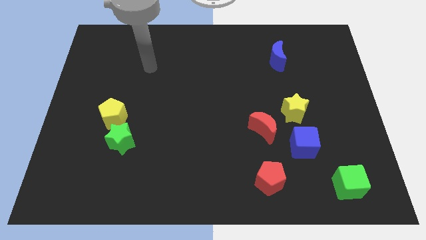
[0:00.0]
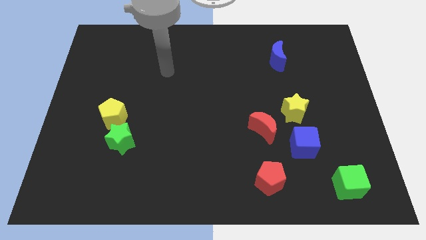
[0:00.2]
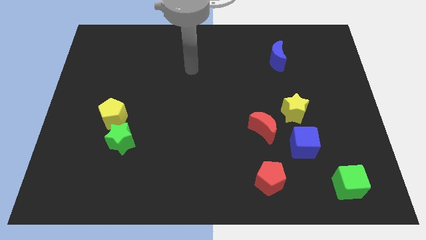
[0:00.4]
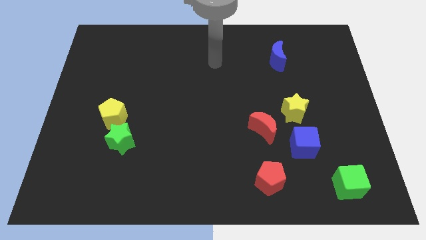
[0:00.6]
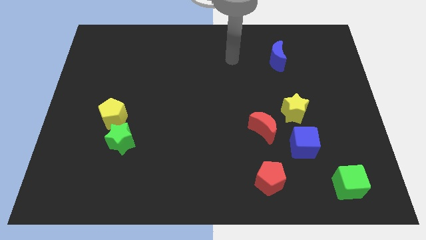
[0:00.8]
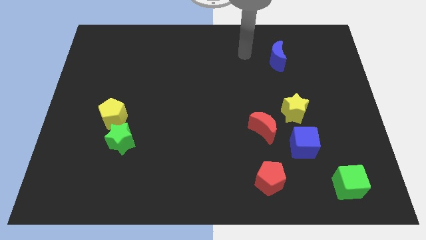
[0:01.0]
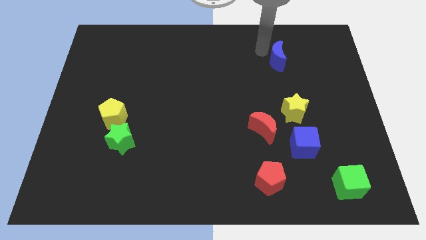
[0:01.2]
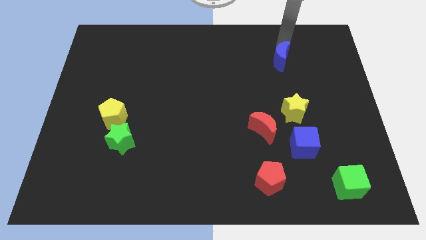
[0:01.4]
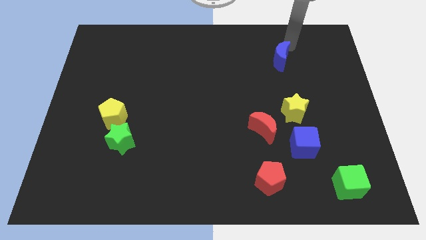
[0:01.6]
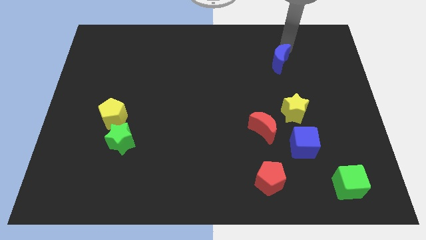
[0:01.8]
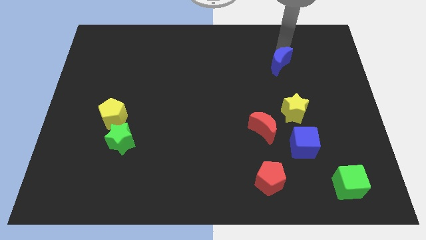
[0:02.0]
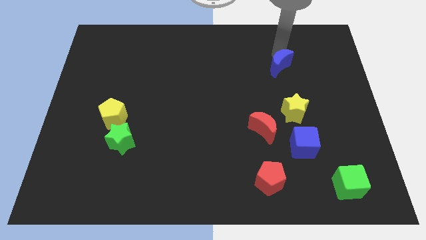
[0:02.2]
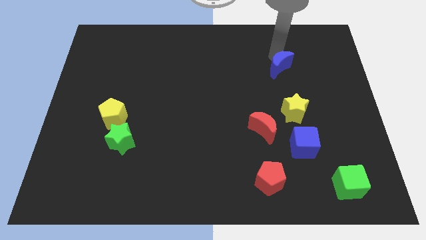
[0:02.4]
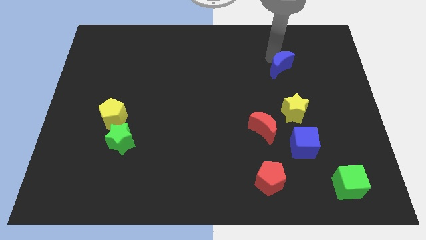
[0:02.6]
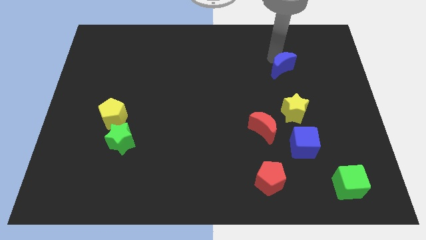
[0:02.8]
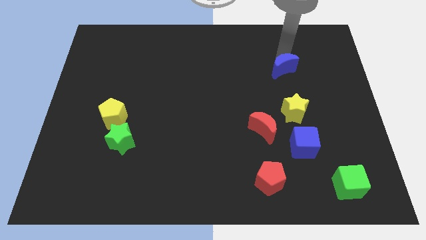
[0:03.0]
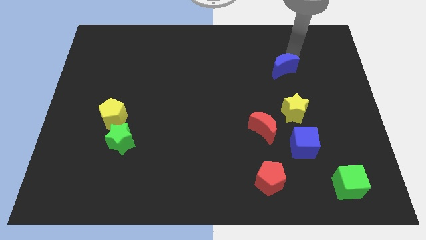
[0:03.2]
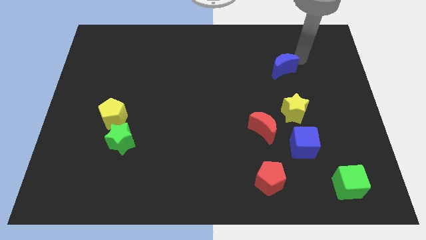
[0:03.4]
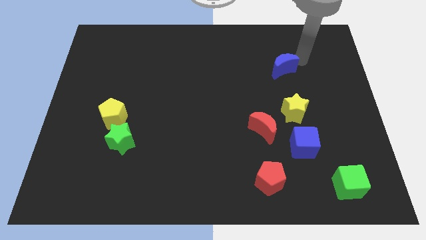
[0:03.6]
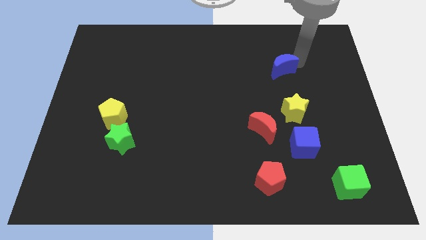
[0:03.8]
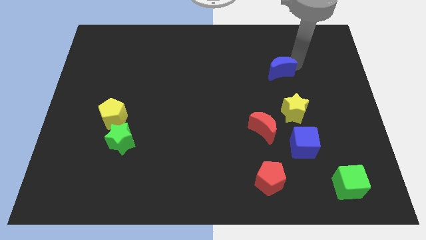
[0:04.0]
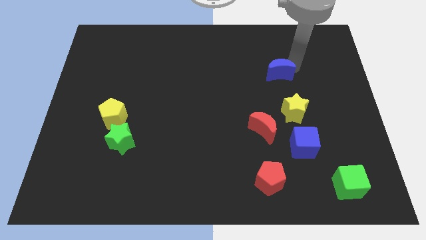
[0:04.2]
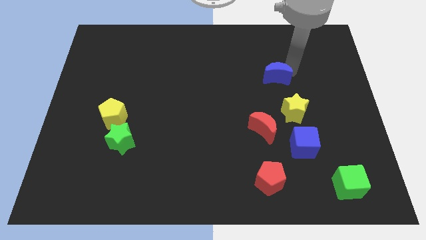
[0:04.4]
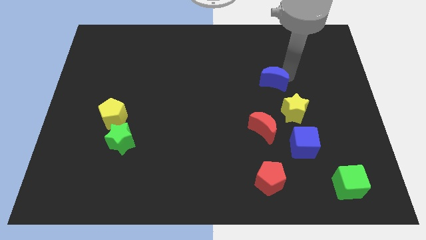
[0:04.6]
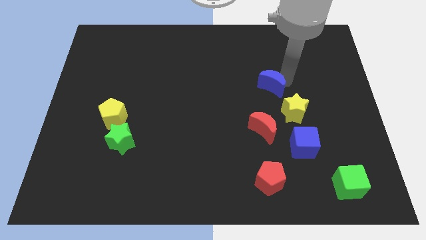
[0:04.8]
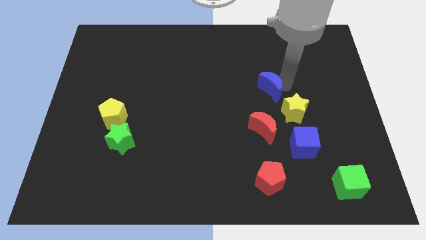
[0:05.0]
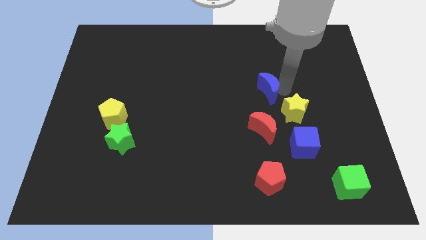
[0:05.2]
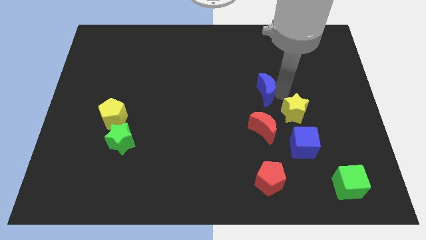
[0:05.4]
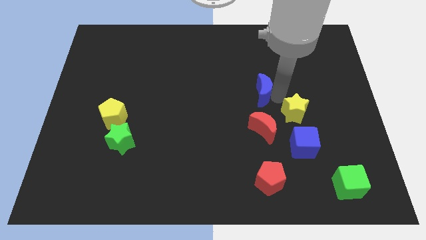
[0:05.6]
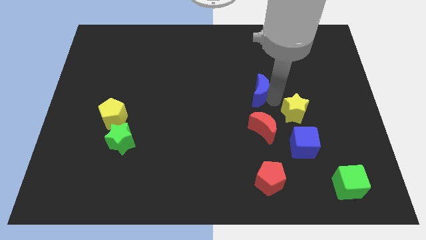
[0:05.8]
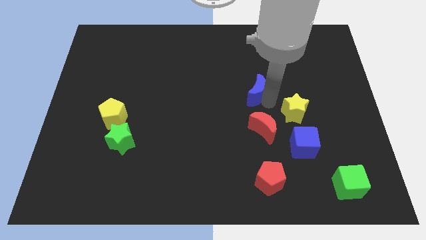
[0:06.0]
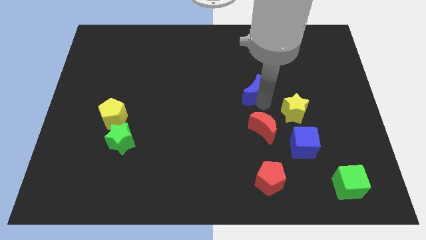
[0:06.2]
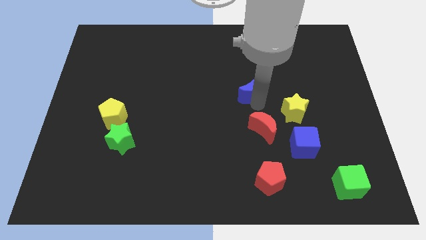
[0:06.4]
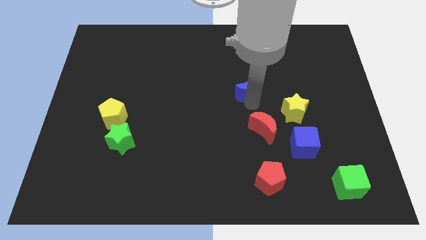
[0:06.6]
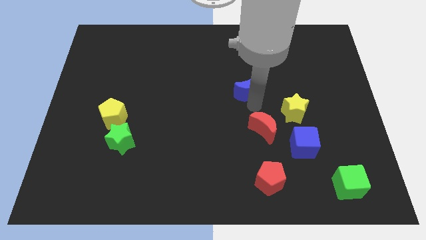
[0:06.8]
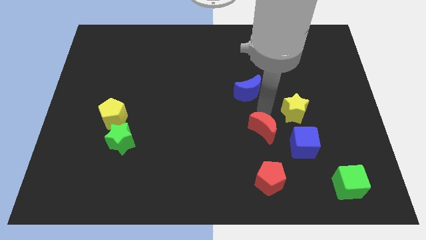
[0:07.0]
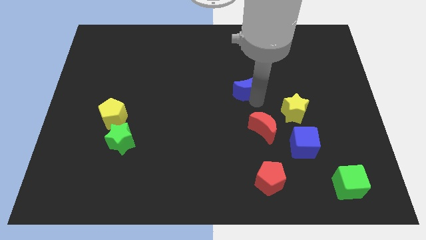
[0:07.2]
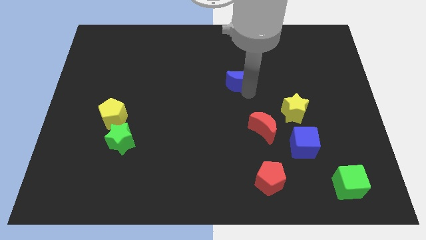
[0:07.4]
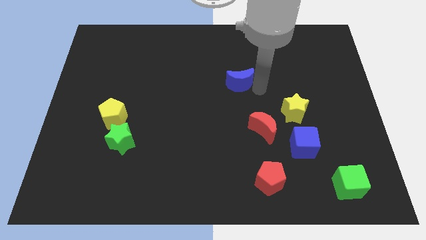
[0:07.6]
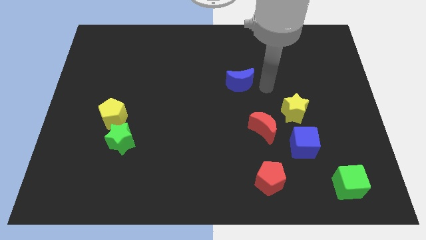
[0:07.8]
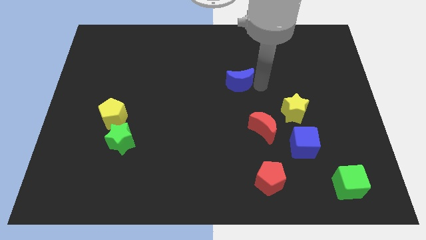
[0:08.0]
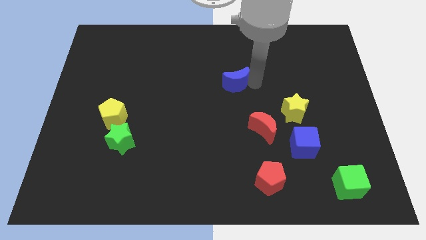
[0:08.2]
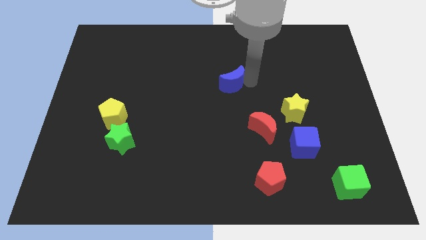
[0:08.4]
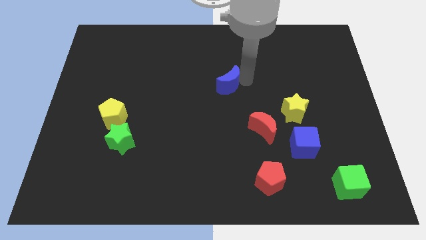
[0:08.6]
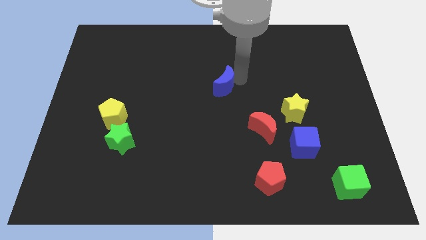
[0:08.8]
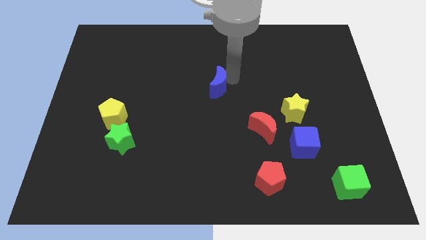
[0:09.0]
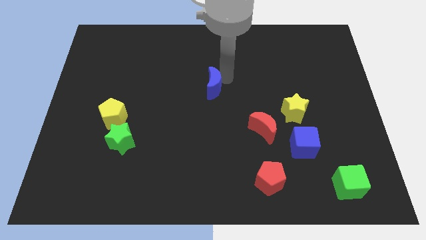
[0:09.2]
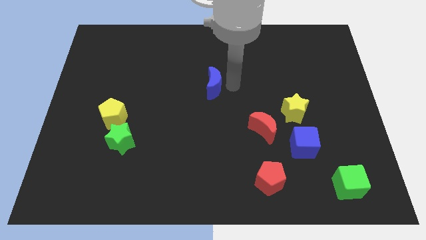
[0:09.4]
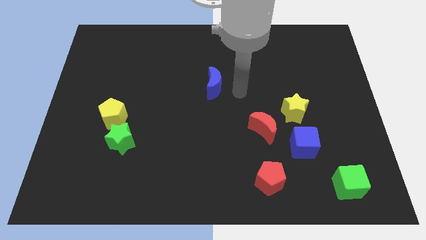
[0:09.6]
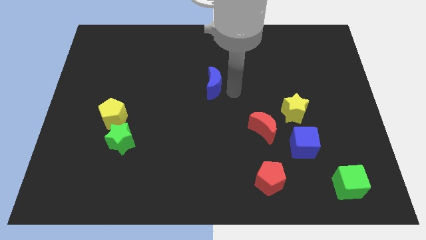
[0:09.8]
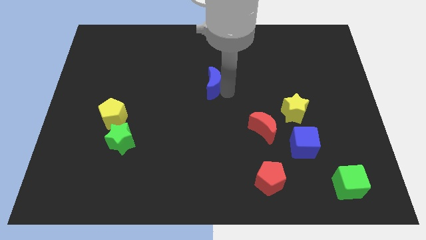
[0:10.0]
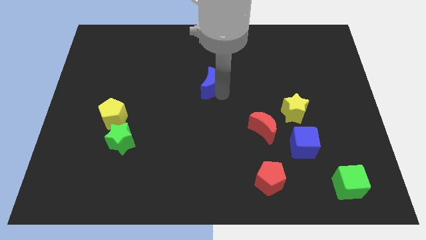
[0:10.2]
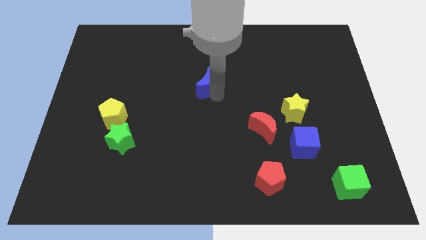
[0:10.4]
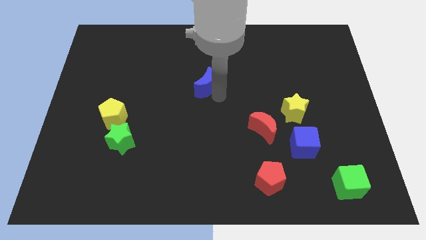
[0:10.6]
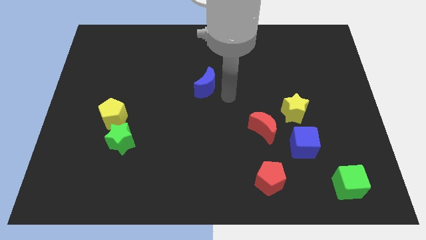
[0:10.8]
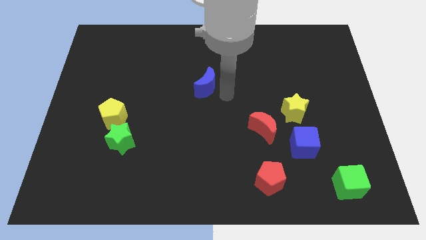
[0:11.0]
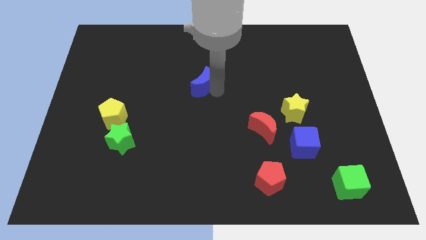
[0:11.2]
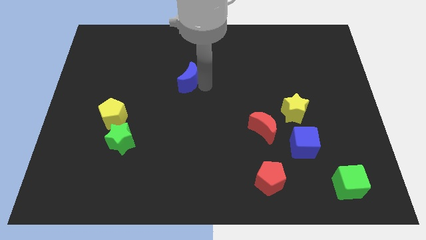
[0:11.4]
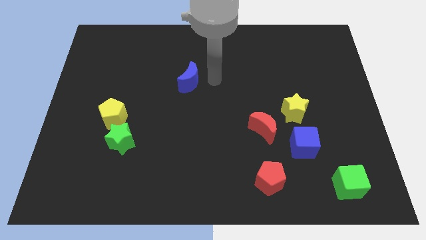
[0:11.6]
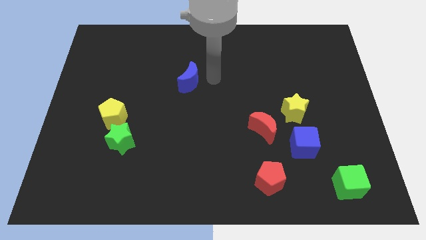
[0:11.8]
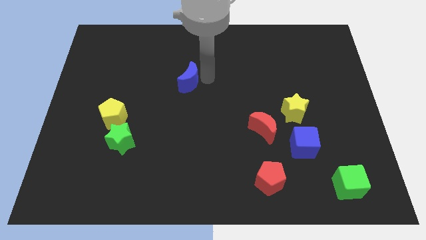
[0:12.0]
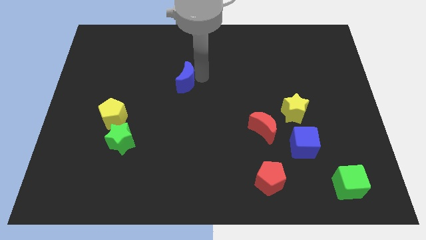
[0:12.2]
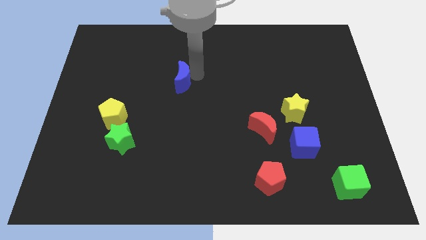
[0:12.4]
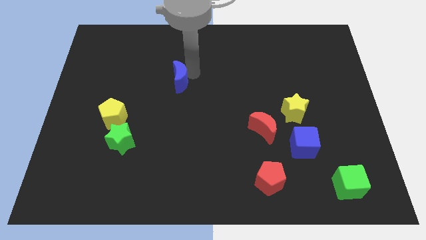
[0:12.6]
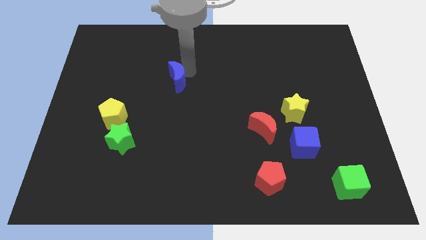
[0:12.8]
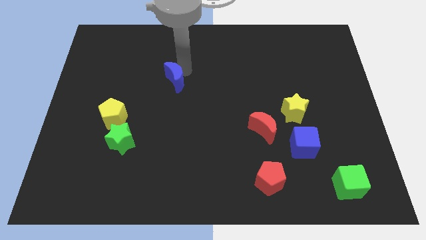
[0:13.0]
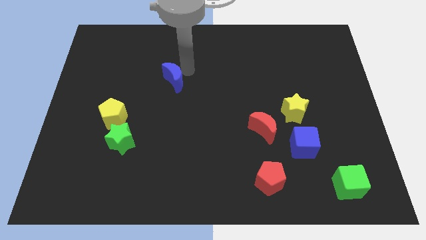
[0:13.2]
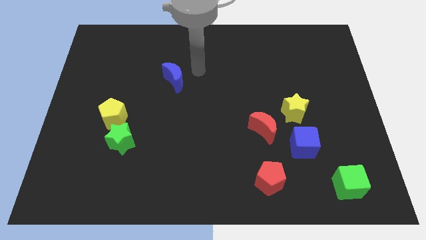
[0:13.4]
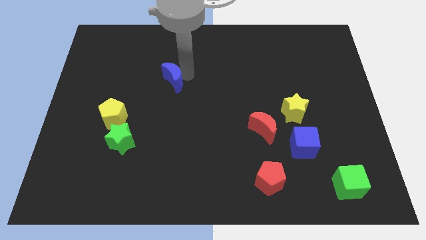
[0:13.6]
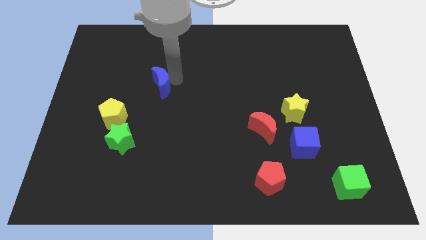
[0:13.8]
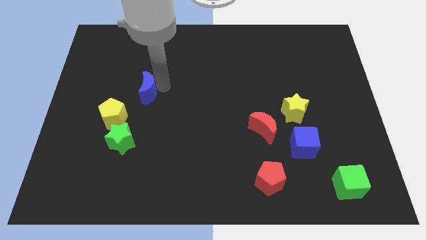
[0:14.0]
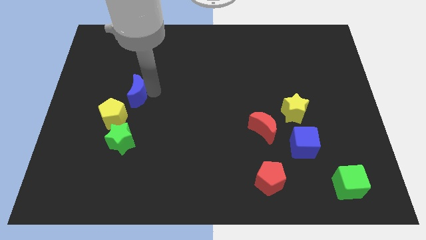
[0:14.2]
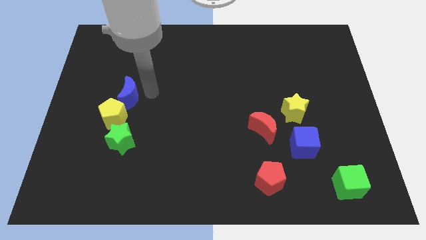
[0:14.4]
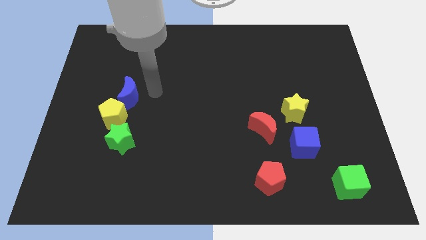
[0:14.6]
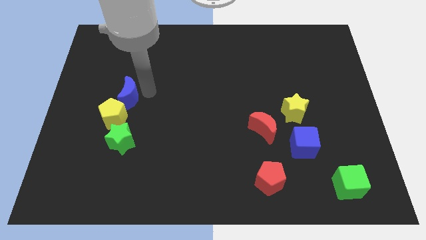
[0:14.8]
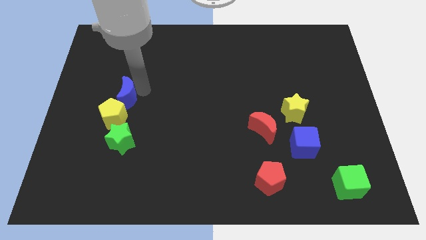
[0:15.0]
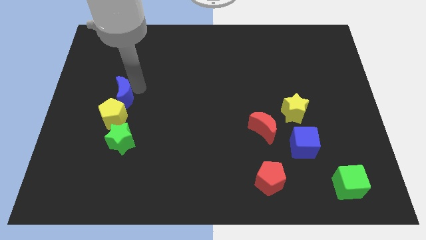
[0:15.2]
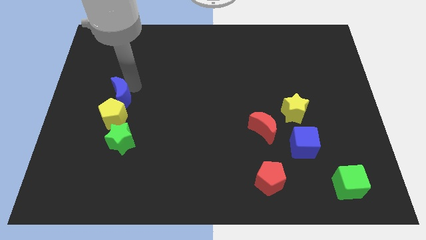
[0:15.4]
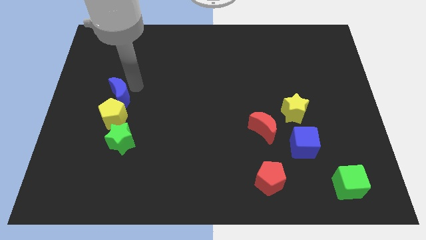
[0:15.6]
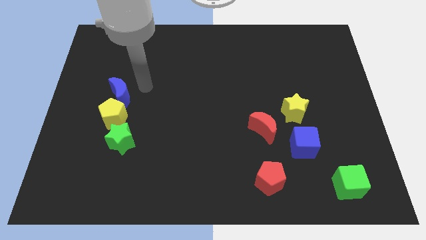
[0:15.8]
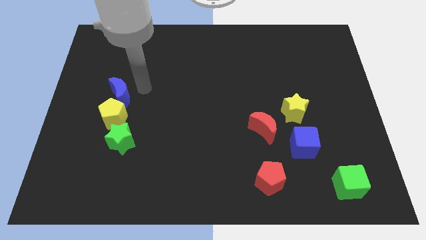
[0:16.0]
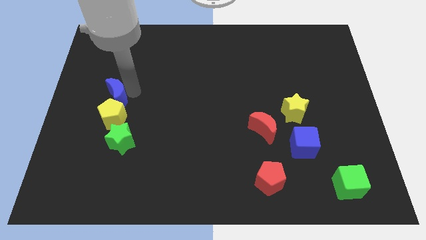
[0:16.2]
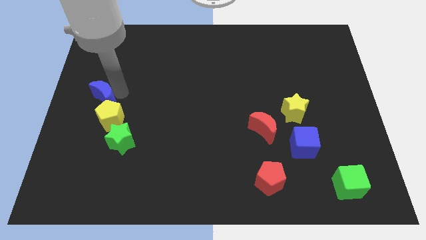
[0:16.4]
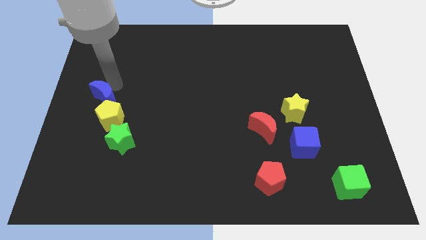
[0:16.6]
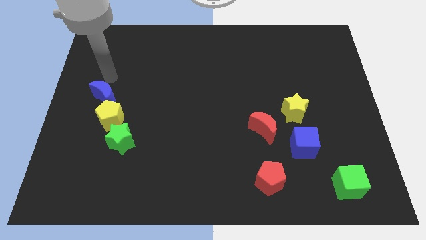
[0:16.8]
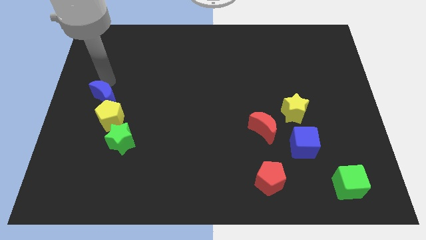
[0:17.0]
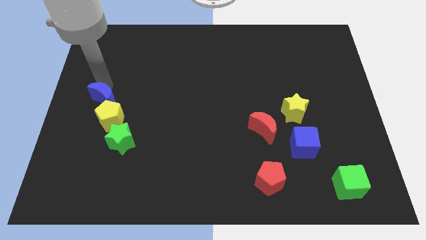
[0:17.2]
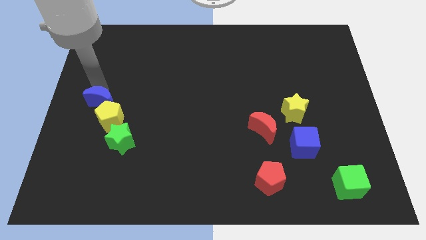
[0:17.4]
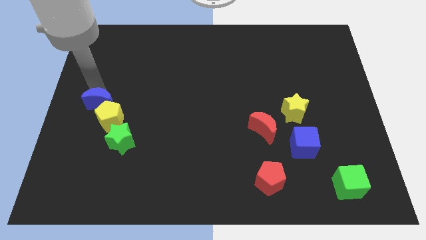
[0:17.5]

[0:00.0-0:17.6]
put the blue moon diagonally up and to the left of the green star
